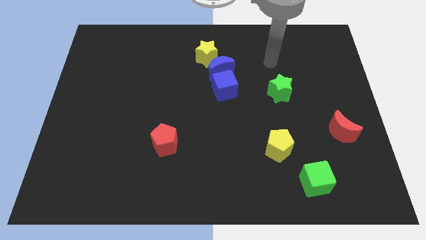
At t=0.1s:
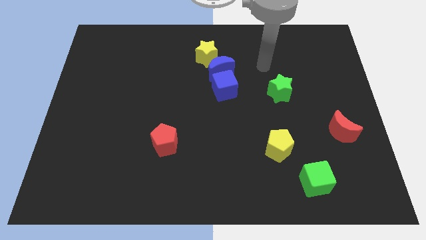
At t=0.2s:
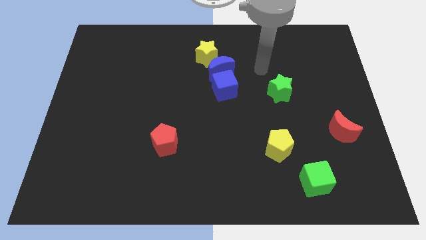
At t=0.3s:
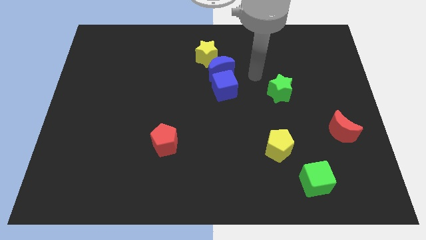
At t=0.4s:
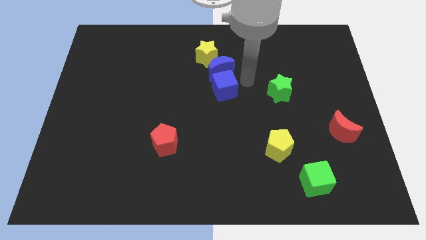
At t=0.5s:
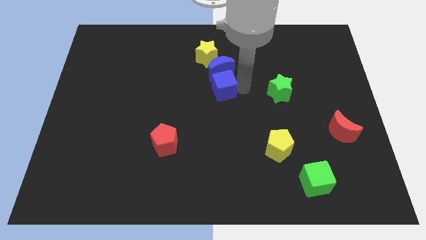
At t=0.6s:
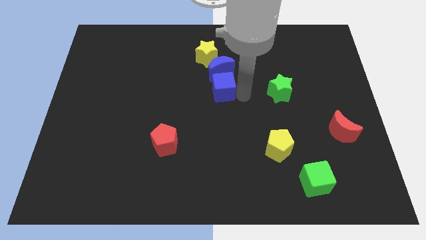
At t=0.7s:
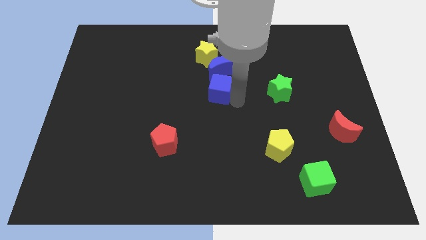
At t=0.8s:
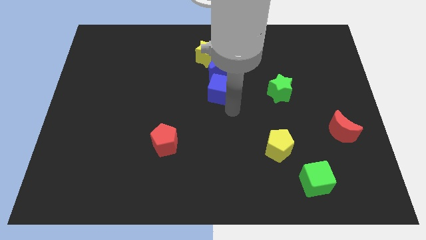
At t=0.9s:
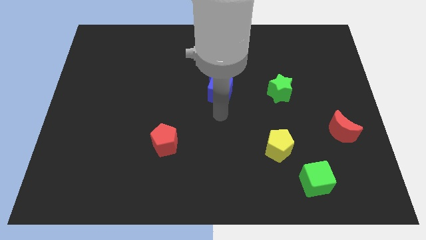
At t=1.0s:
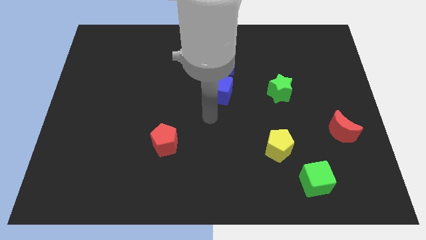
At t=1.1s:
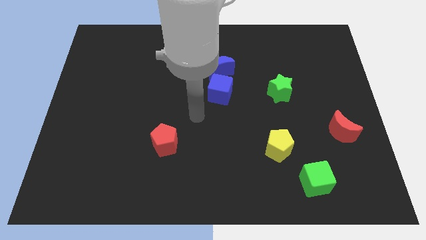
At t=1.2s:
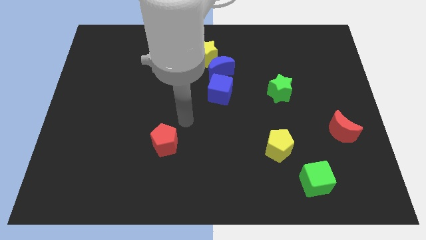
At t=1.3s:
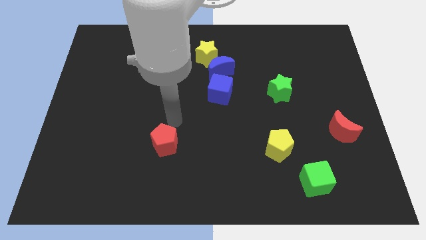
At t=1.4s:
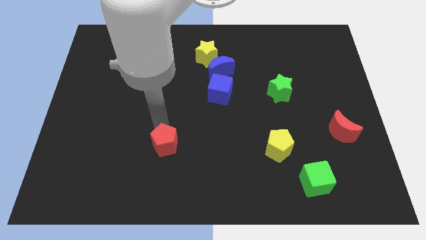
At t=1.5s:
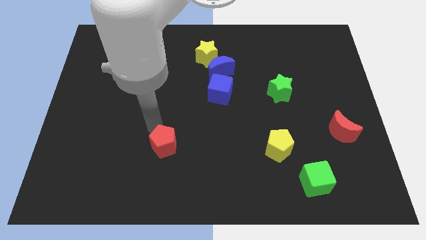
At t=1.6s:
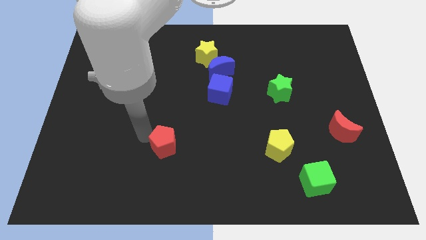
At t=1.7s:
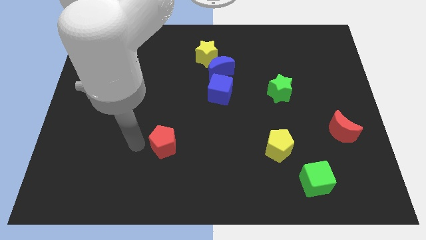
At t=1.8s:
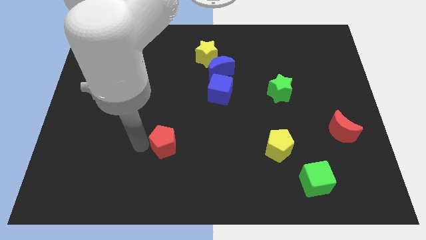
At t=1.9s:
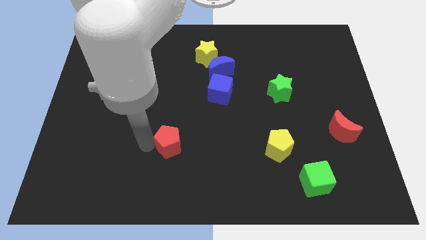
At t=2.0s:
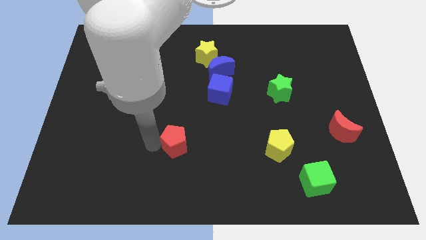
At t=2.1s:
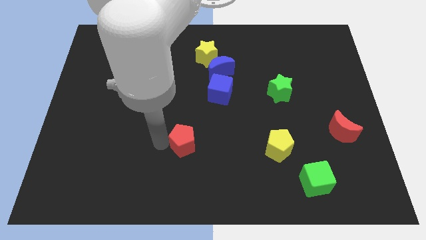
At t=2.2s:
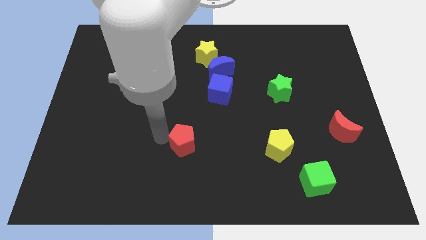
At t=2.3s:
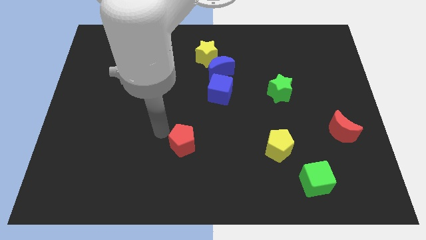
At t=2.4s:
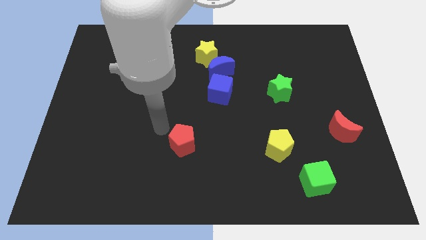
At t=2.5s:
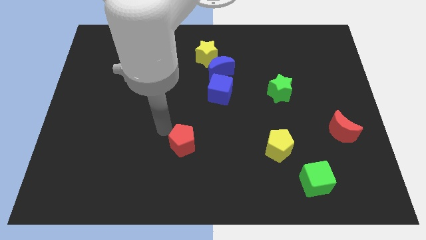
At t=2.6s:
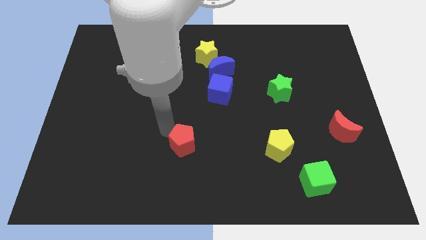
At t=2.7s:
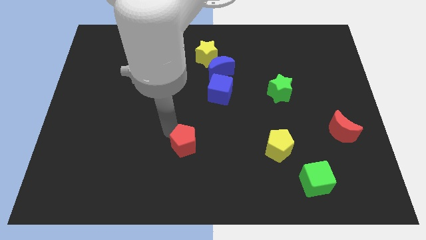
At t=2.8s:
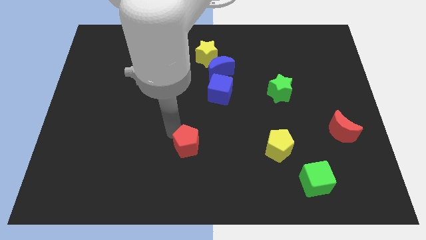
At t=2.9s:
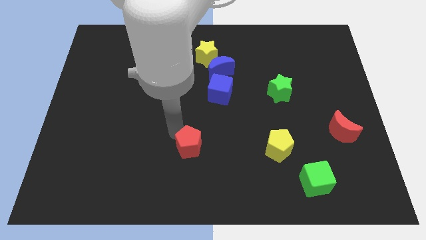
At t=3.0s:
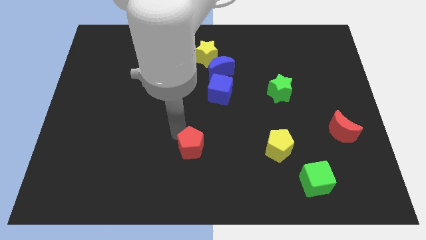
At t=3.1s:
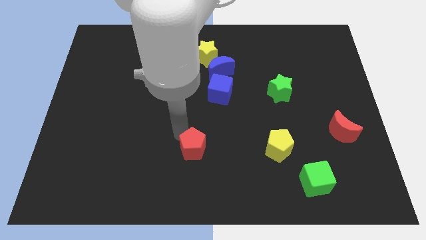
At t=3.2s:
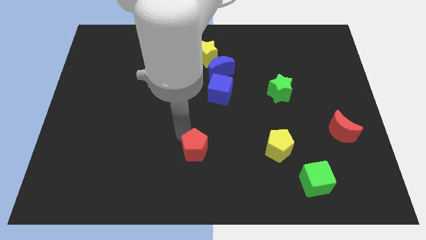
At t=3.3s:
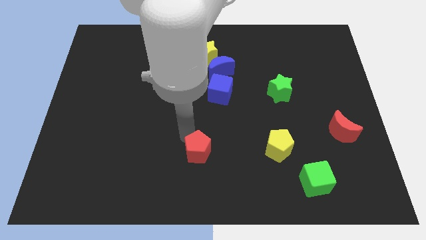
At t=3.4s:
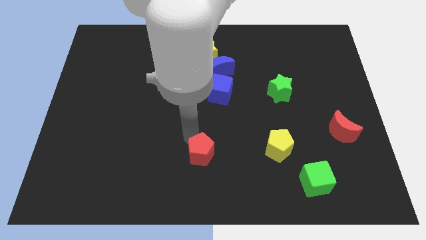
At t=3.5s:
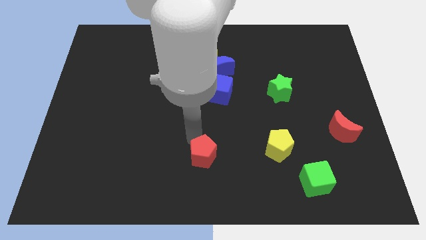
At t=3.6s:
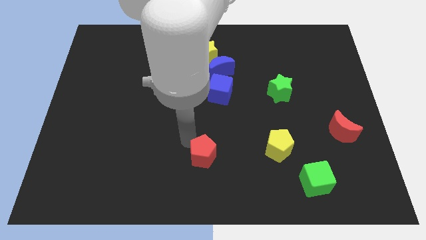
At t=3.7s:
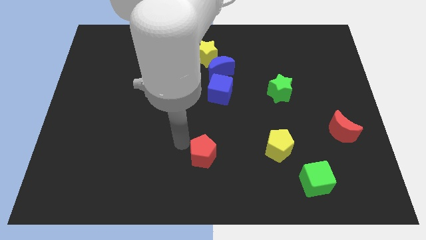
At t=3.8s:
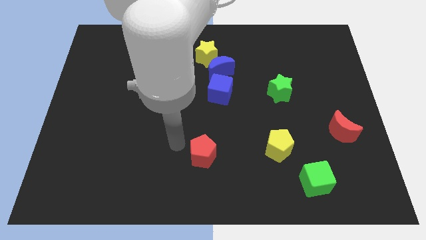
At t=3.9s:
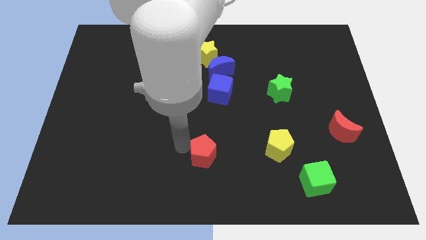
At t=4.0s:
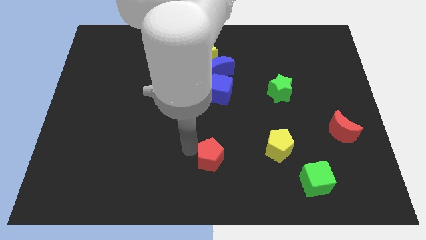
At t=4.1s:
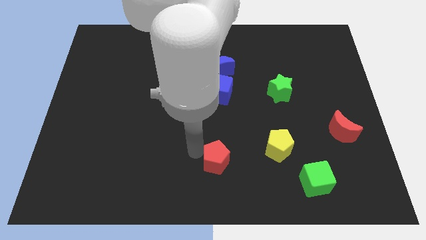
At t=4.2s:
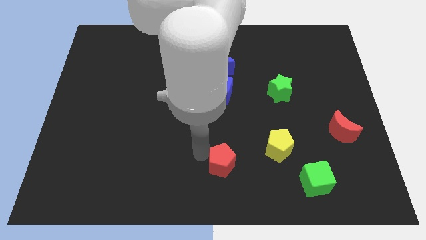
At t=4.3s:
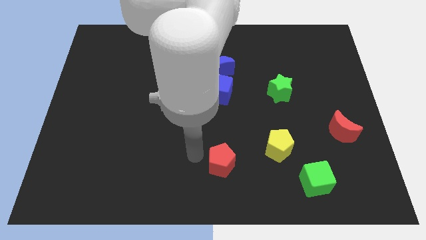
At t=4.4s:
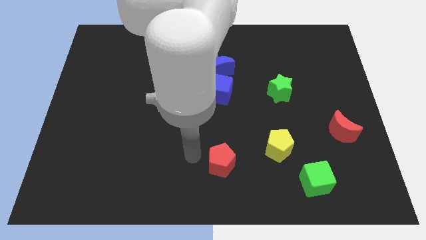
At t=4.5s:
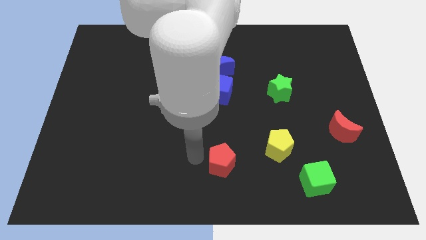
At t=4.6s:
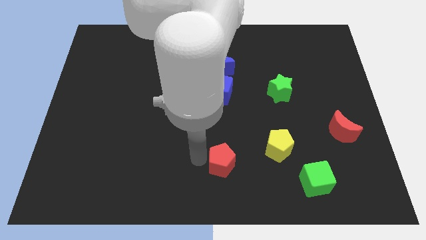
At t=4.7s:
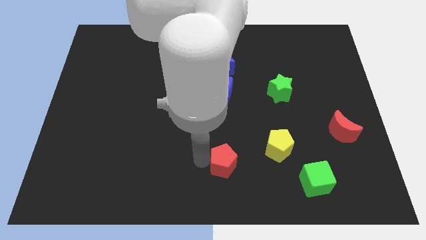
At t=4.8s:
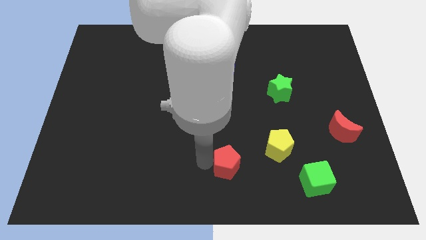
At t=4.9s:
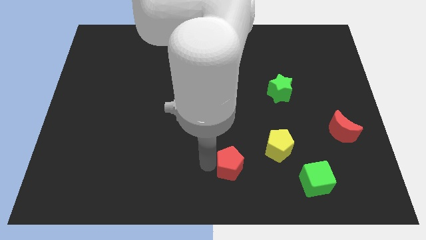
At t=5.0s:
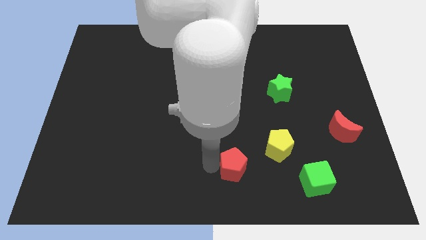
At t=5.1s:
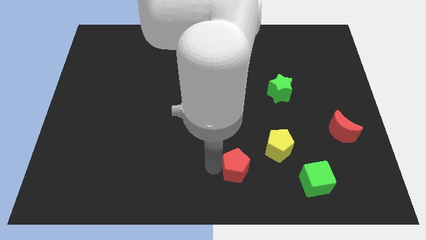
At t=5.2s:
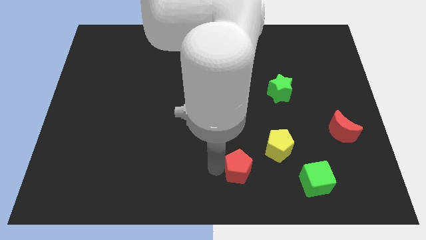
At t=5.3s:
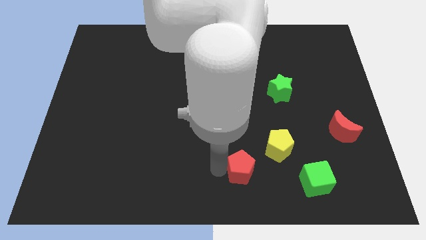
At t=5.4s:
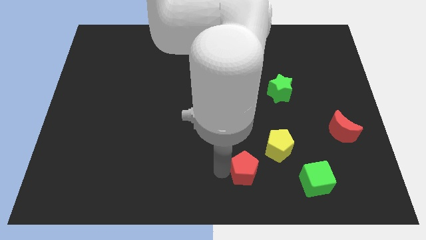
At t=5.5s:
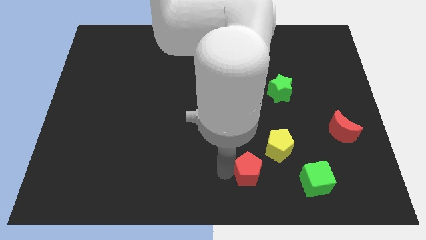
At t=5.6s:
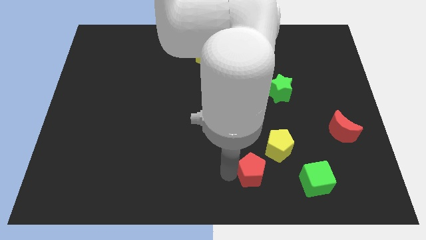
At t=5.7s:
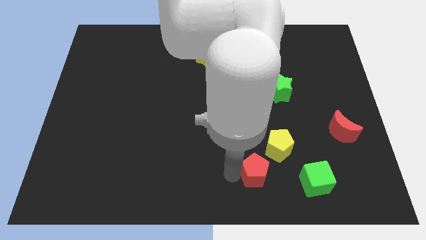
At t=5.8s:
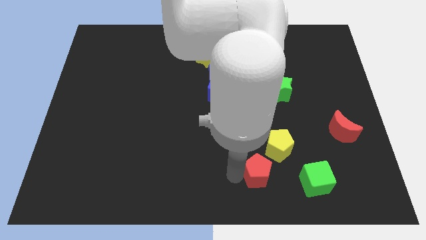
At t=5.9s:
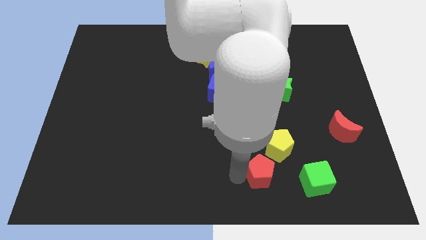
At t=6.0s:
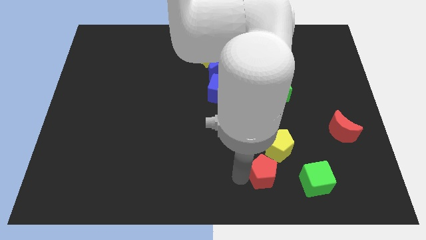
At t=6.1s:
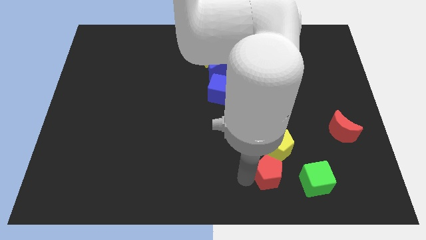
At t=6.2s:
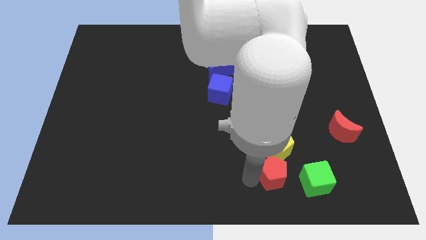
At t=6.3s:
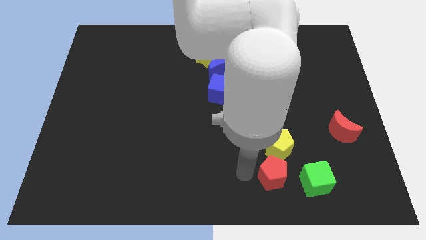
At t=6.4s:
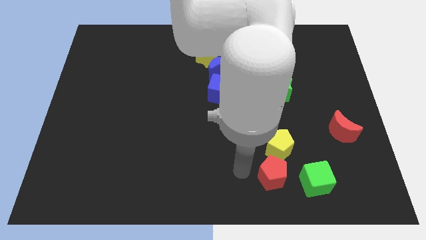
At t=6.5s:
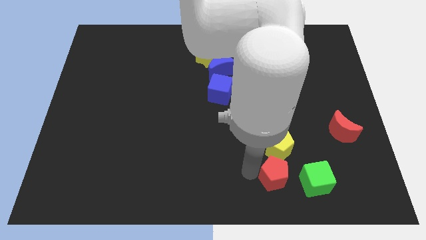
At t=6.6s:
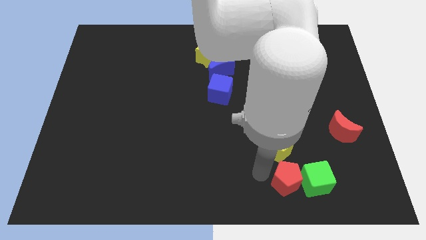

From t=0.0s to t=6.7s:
move the red pentagon next to the green cube

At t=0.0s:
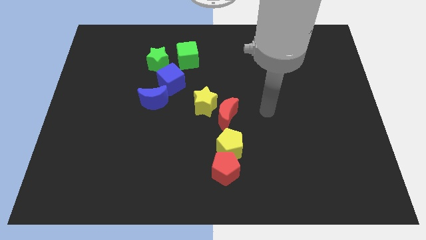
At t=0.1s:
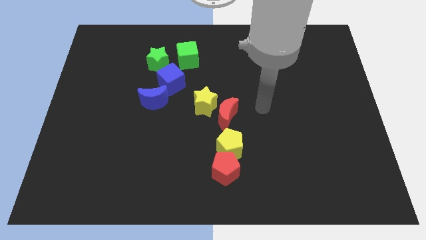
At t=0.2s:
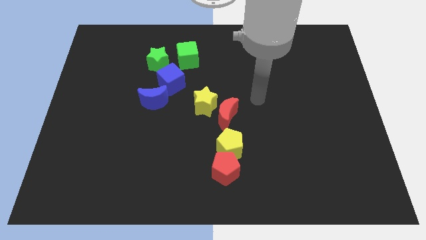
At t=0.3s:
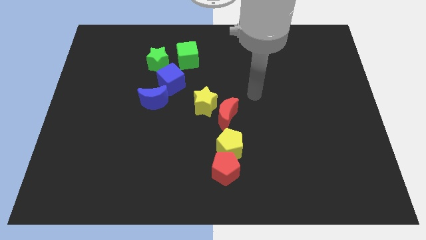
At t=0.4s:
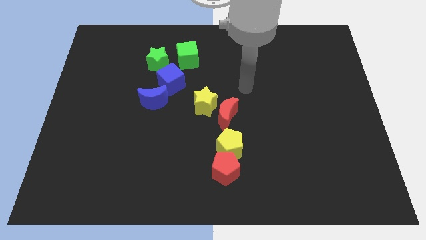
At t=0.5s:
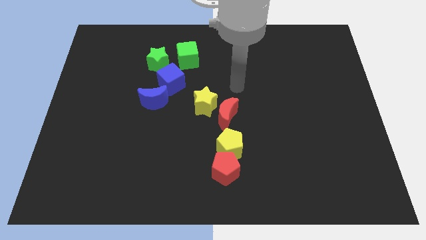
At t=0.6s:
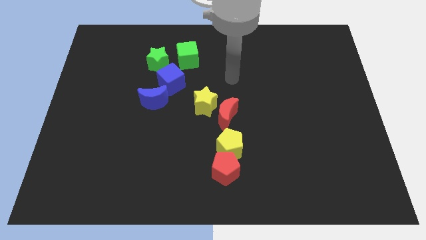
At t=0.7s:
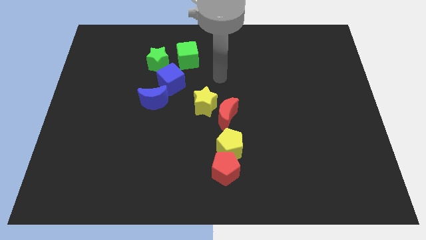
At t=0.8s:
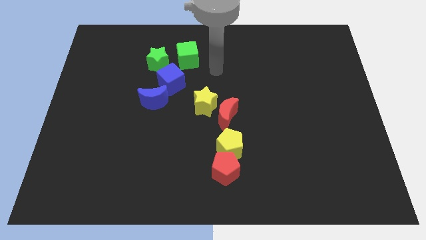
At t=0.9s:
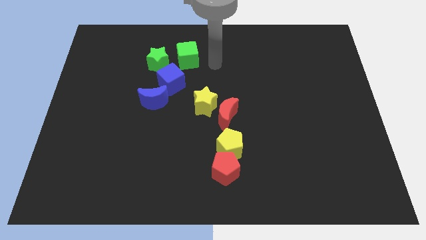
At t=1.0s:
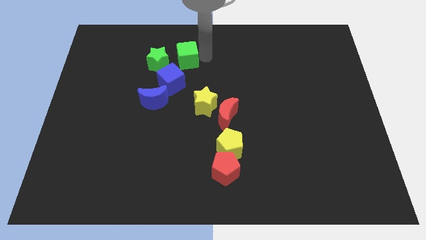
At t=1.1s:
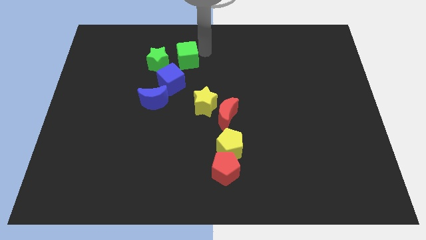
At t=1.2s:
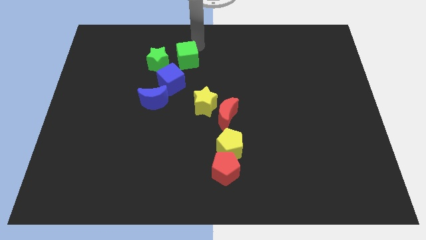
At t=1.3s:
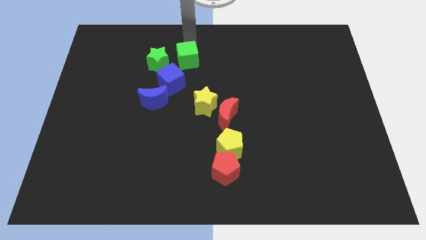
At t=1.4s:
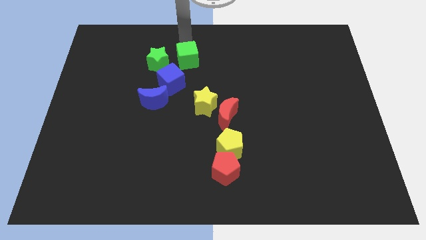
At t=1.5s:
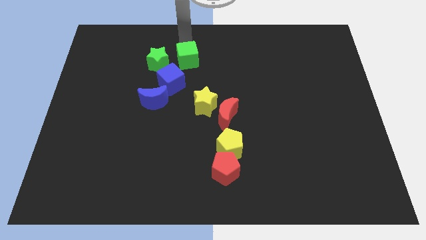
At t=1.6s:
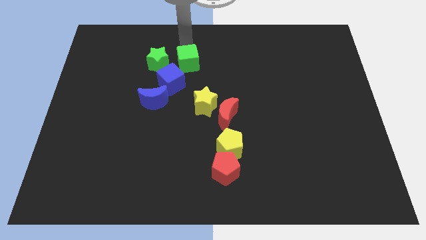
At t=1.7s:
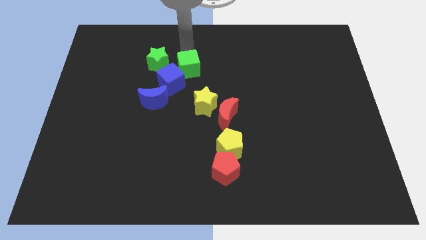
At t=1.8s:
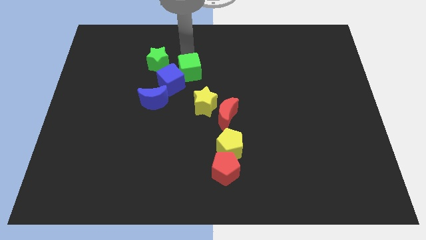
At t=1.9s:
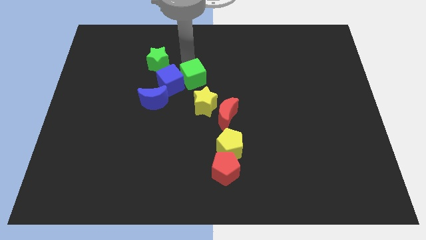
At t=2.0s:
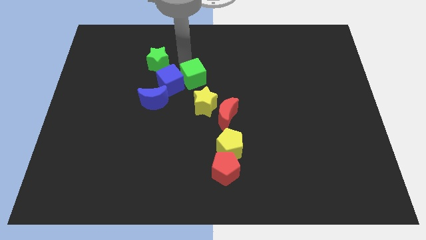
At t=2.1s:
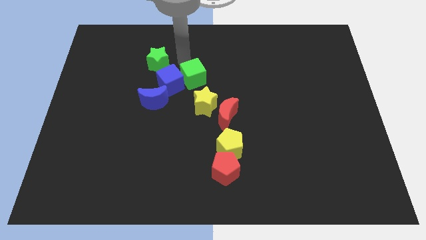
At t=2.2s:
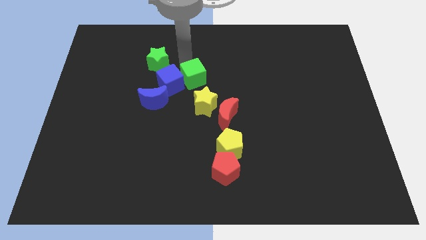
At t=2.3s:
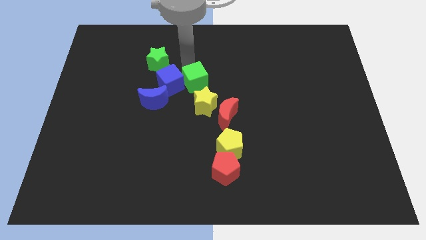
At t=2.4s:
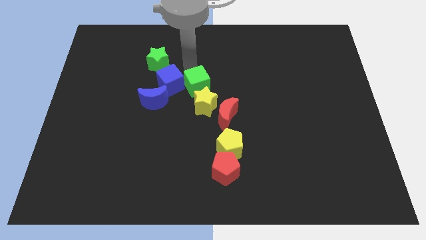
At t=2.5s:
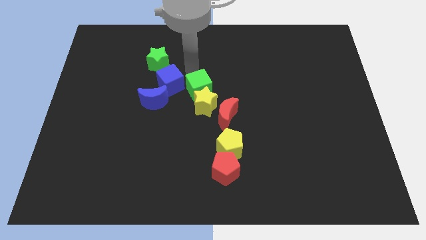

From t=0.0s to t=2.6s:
put the green cube towards the yellow star
